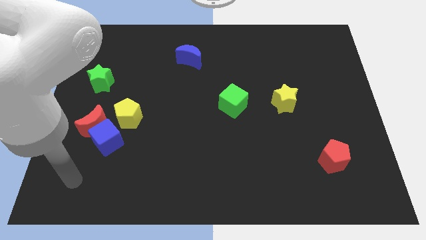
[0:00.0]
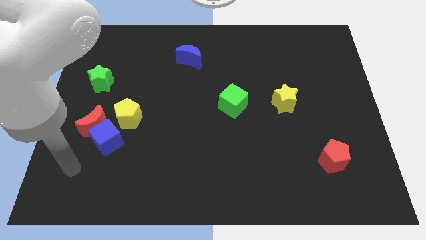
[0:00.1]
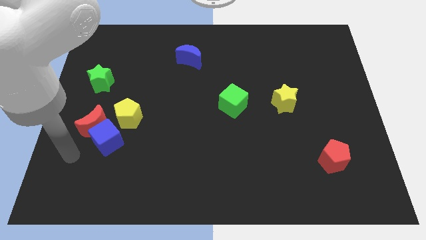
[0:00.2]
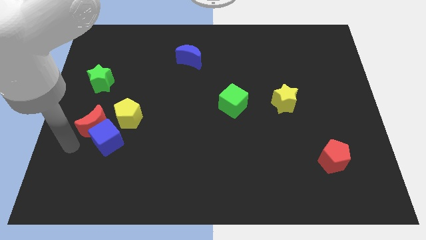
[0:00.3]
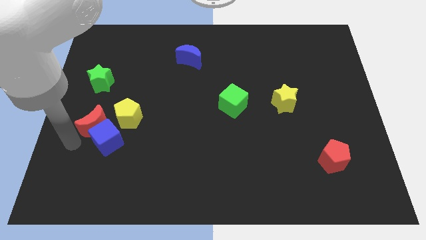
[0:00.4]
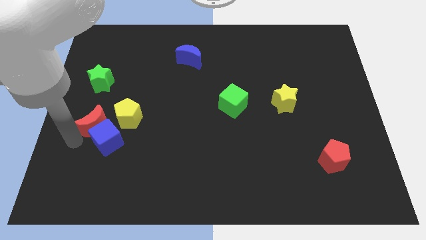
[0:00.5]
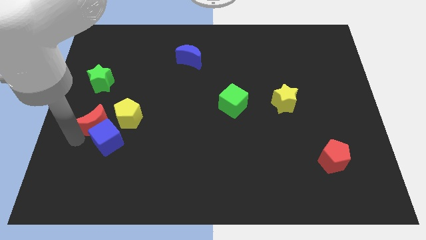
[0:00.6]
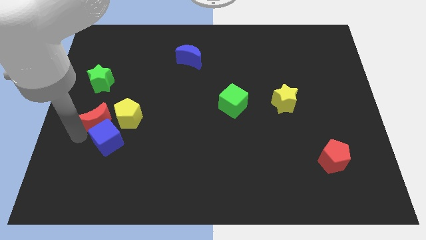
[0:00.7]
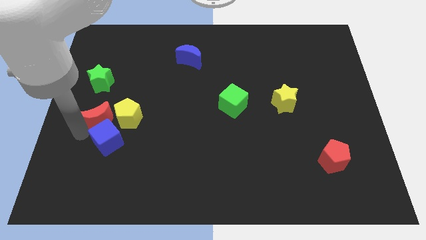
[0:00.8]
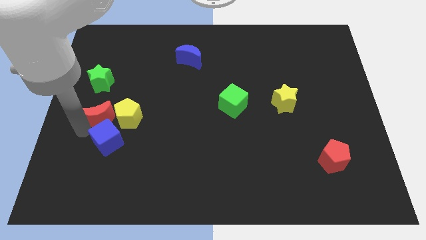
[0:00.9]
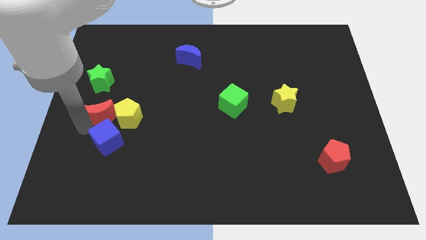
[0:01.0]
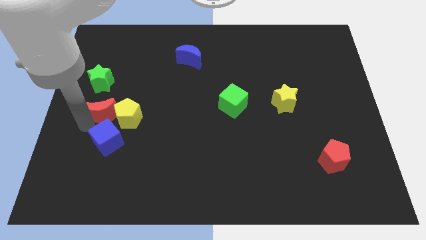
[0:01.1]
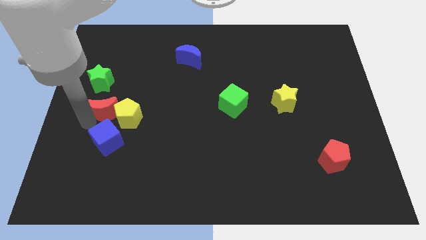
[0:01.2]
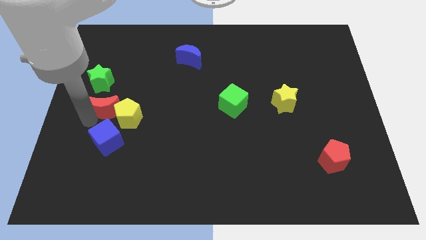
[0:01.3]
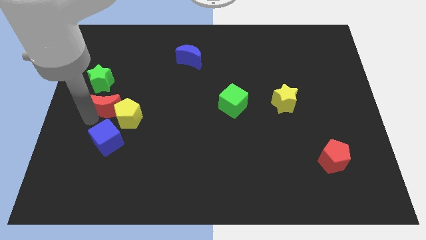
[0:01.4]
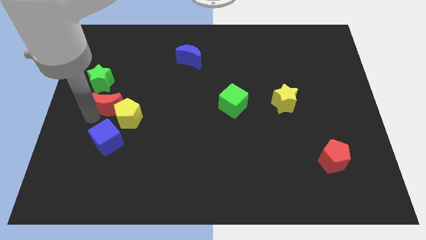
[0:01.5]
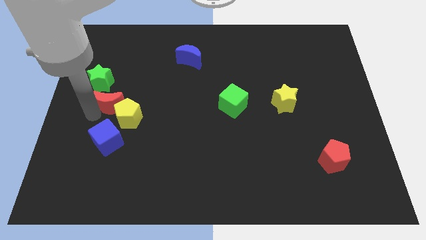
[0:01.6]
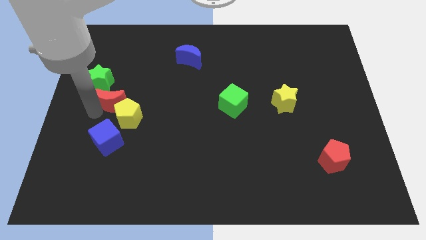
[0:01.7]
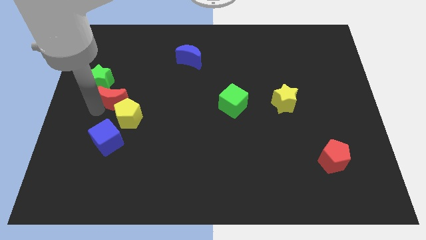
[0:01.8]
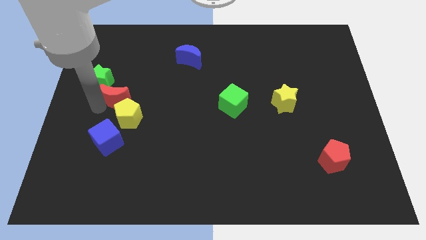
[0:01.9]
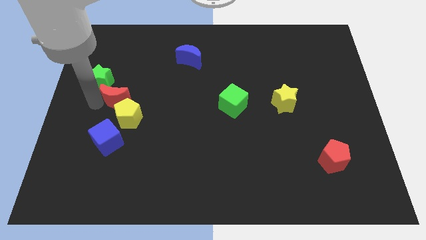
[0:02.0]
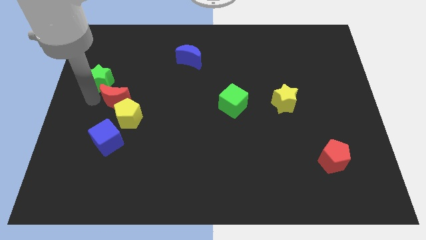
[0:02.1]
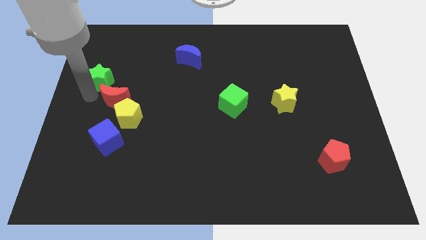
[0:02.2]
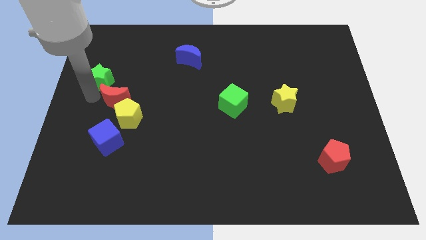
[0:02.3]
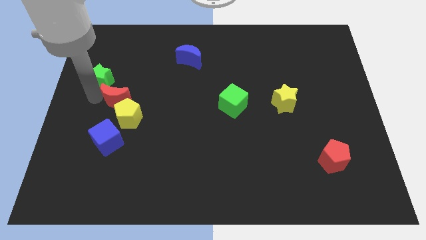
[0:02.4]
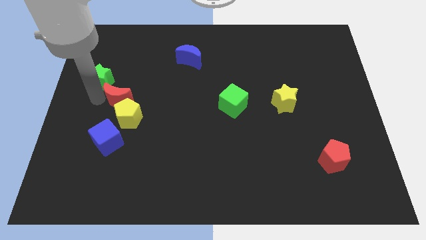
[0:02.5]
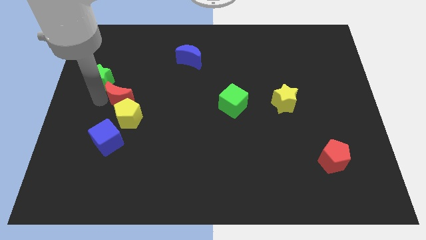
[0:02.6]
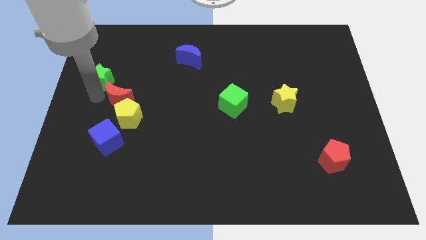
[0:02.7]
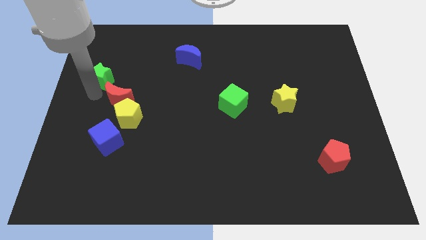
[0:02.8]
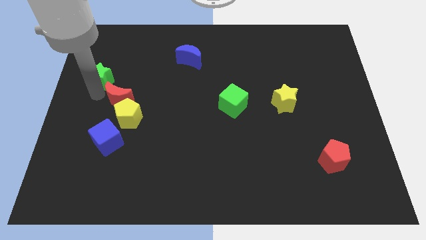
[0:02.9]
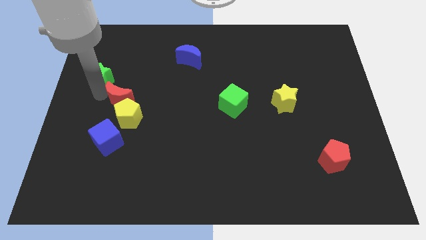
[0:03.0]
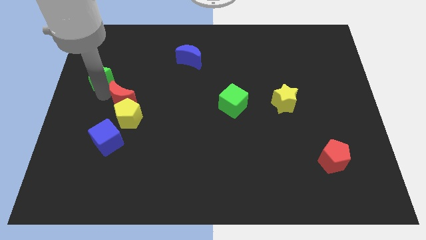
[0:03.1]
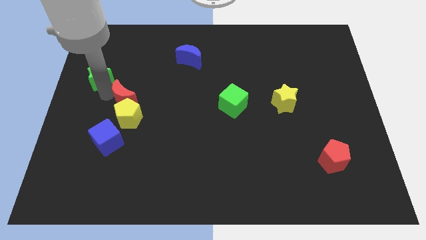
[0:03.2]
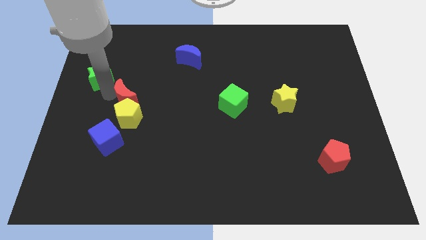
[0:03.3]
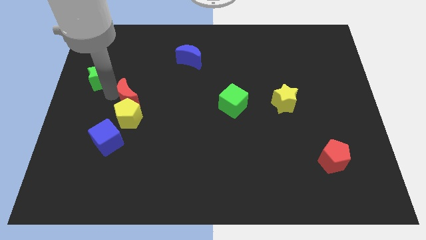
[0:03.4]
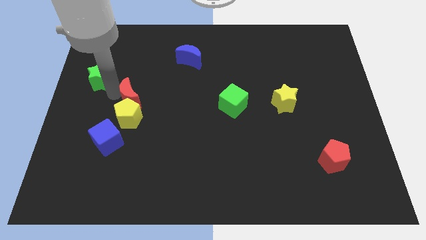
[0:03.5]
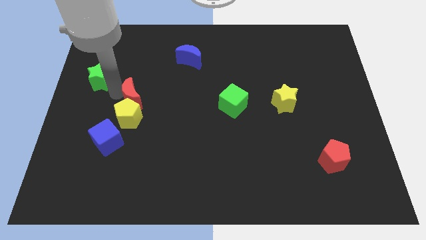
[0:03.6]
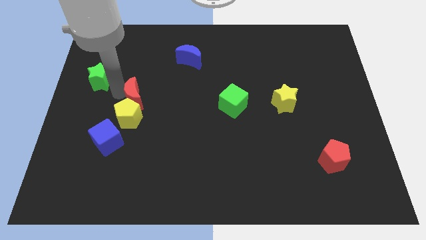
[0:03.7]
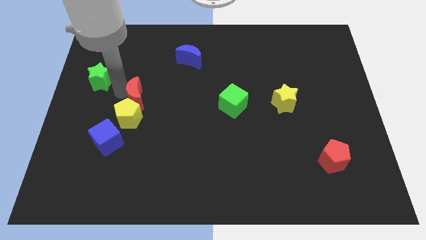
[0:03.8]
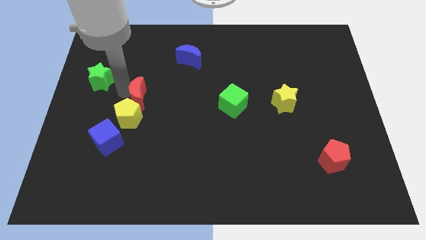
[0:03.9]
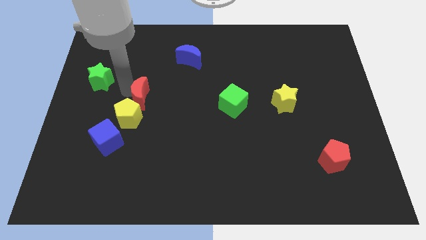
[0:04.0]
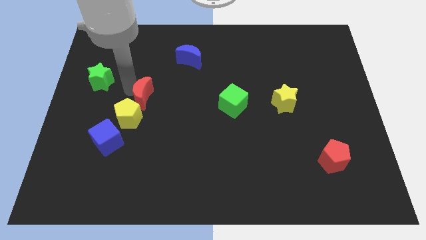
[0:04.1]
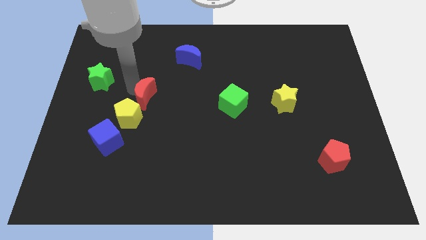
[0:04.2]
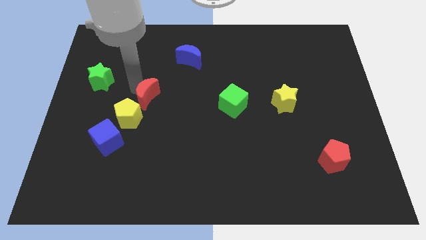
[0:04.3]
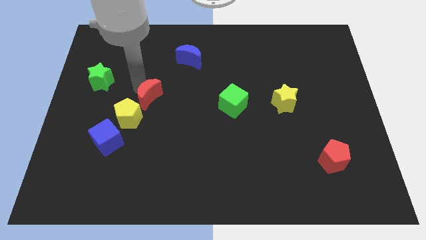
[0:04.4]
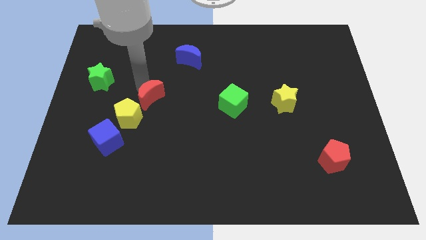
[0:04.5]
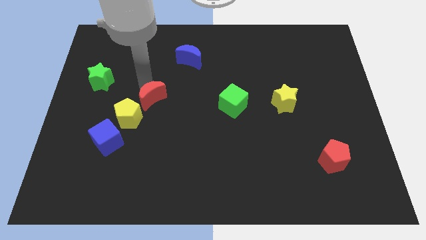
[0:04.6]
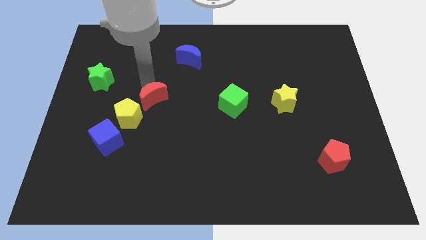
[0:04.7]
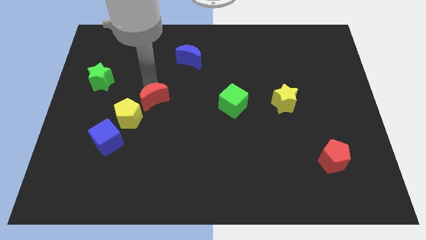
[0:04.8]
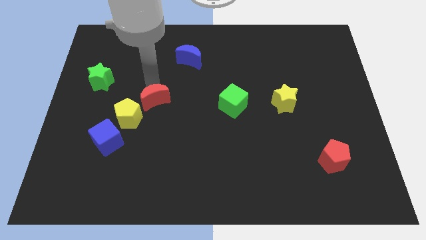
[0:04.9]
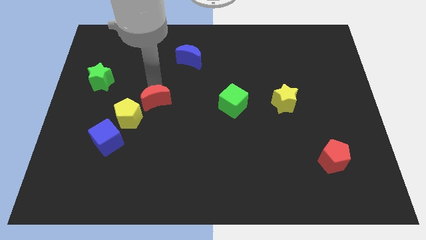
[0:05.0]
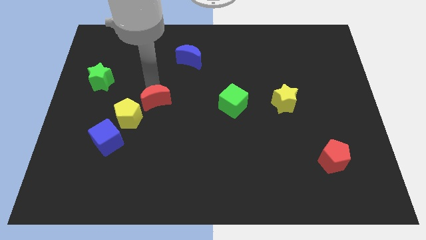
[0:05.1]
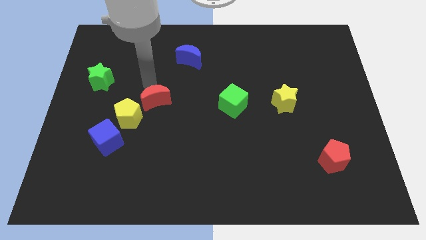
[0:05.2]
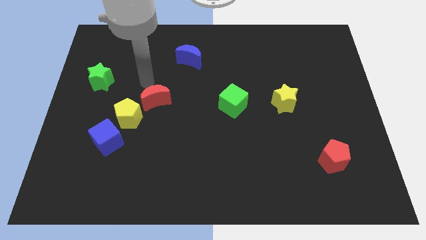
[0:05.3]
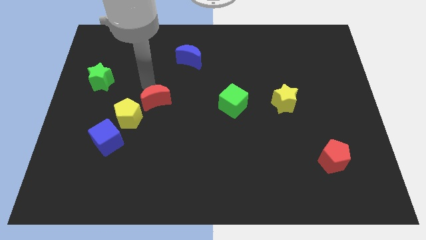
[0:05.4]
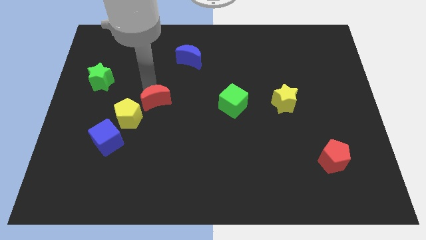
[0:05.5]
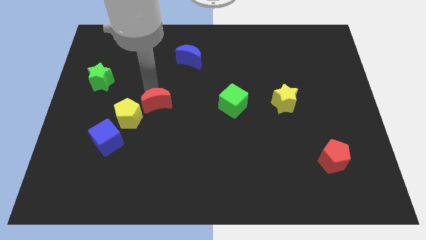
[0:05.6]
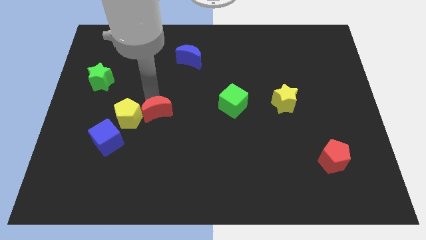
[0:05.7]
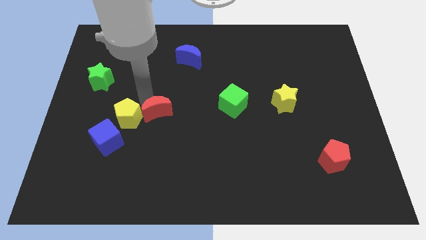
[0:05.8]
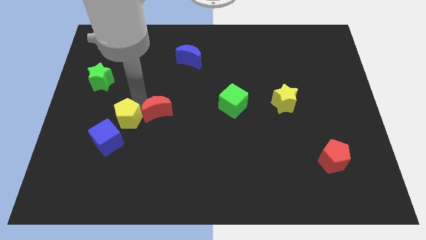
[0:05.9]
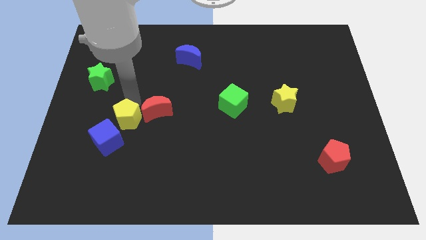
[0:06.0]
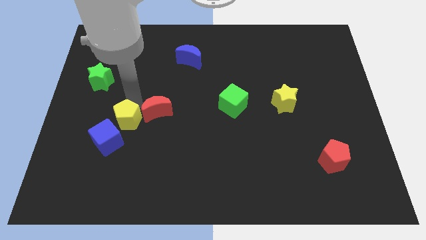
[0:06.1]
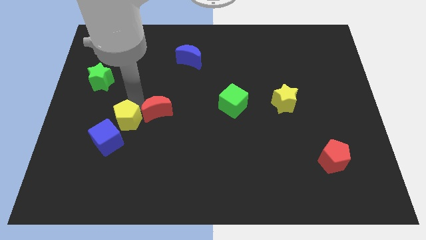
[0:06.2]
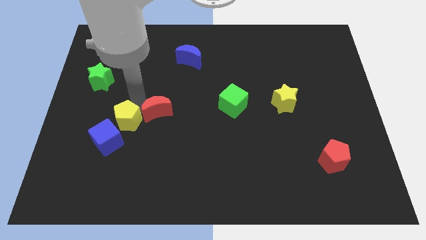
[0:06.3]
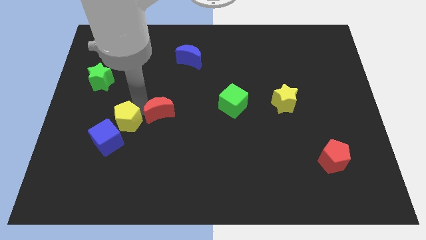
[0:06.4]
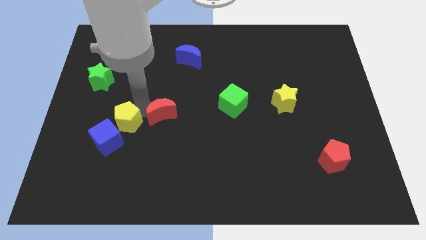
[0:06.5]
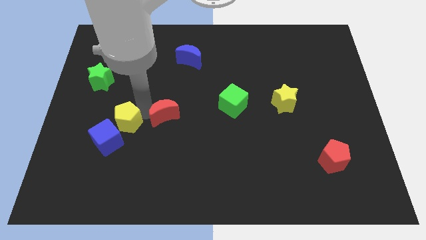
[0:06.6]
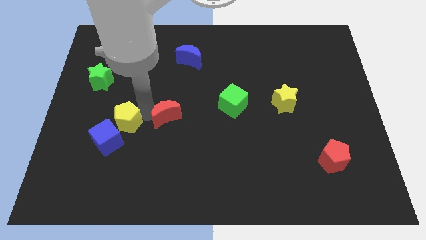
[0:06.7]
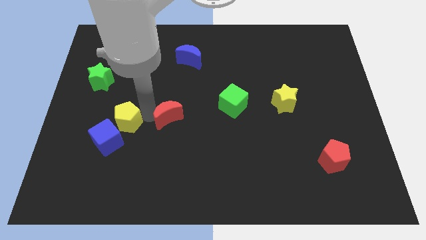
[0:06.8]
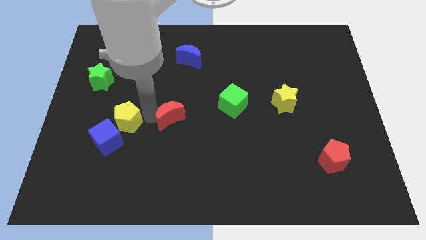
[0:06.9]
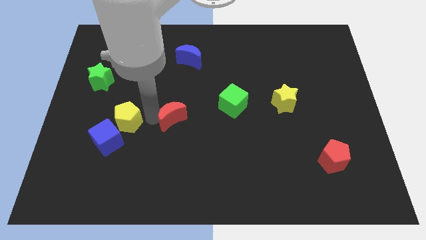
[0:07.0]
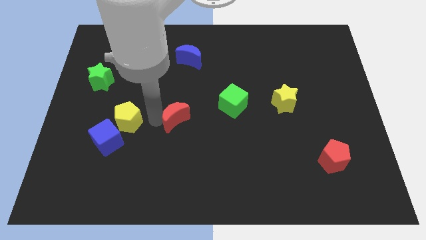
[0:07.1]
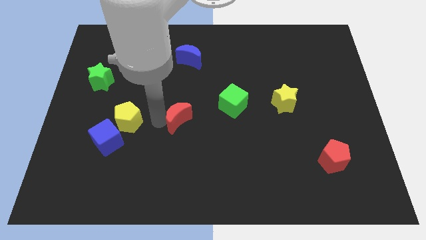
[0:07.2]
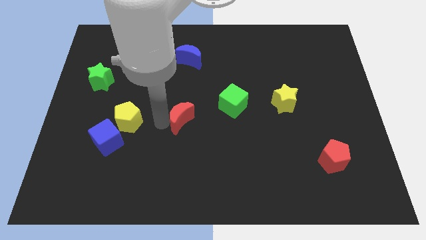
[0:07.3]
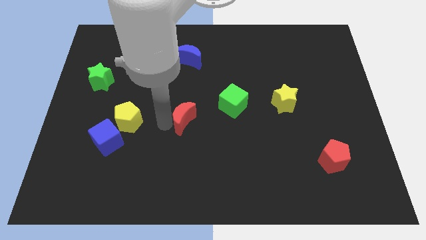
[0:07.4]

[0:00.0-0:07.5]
push the red moon to the right

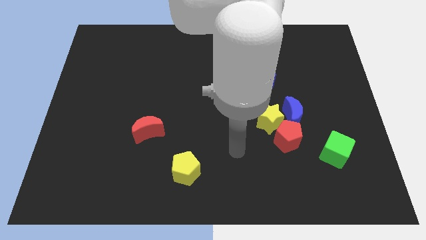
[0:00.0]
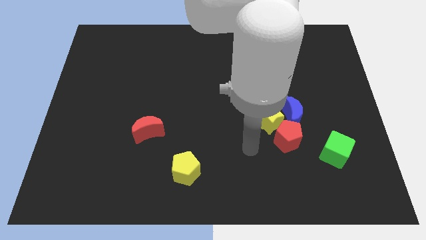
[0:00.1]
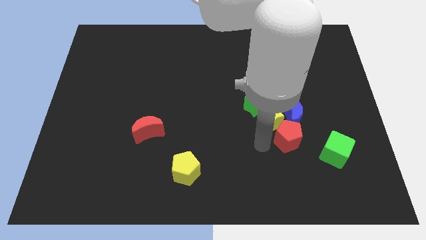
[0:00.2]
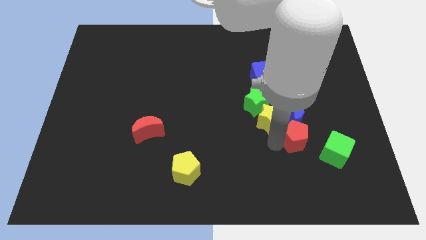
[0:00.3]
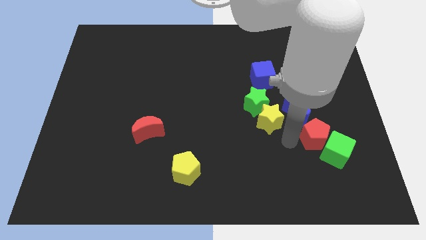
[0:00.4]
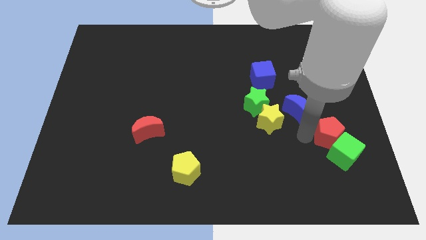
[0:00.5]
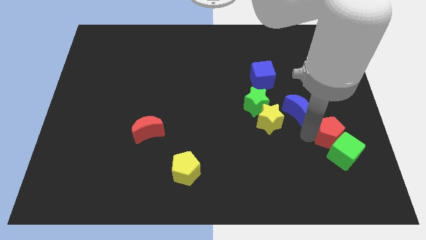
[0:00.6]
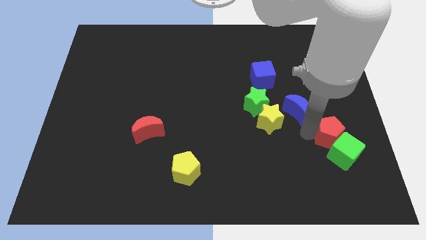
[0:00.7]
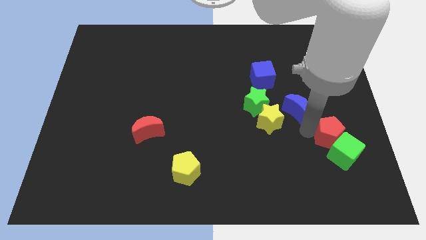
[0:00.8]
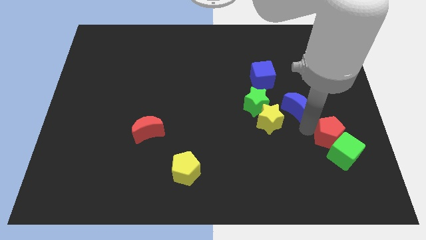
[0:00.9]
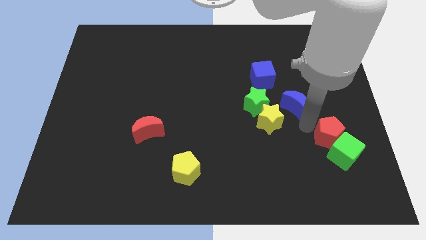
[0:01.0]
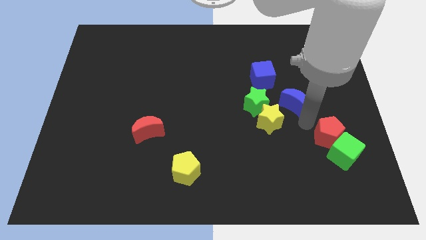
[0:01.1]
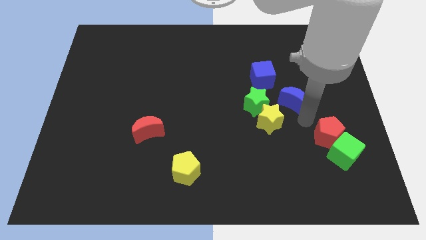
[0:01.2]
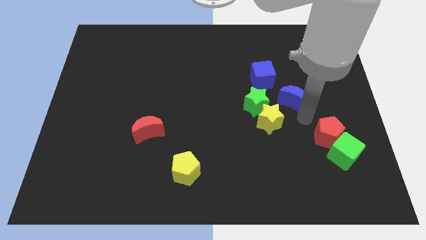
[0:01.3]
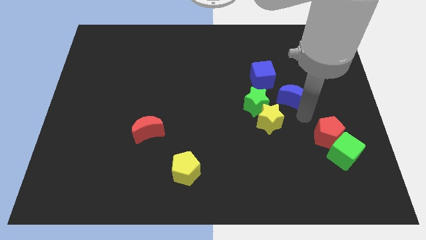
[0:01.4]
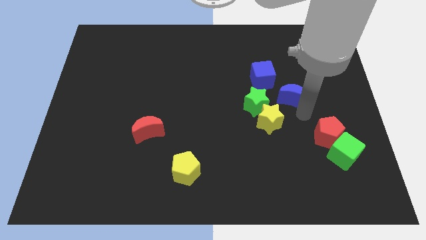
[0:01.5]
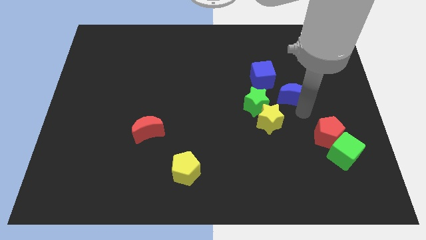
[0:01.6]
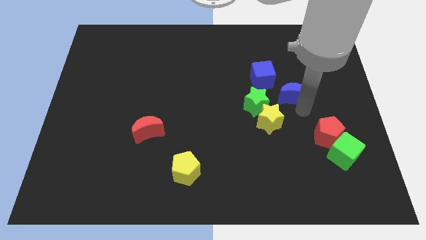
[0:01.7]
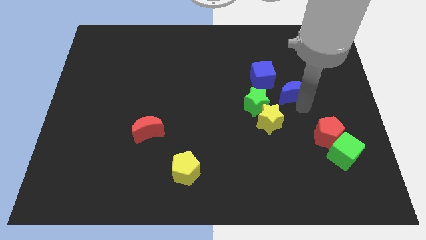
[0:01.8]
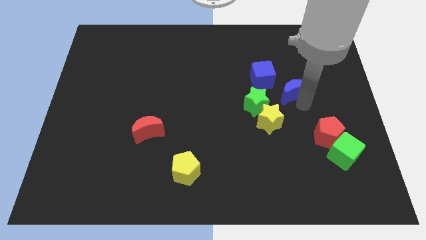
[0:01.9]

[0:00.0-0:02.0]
move the blue moon slightly up
